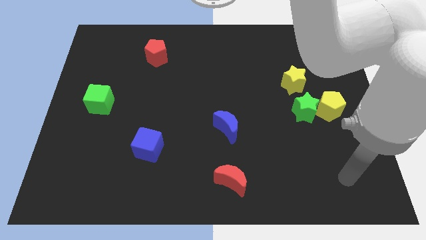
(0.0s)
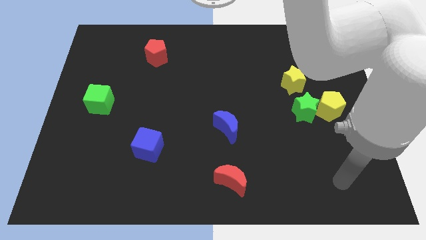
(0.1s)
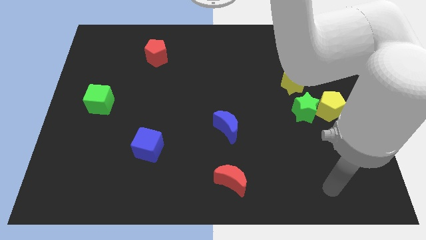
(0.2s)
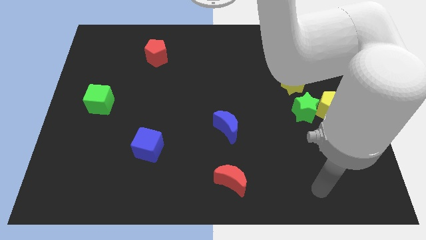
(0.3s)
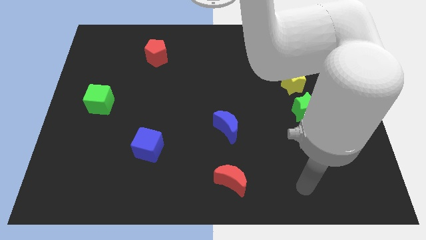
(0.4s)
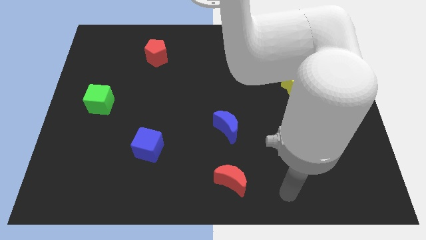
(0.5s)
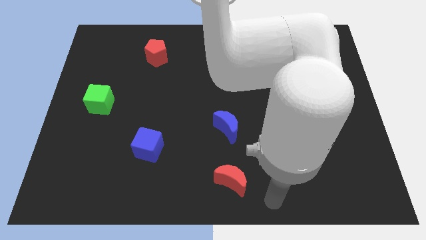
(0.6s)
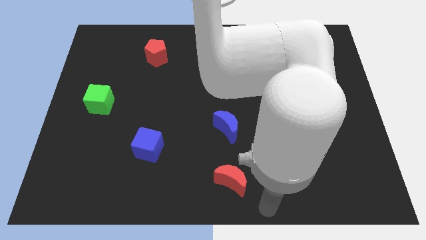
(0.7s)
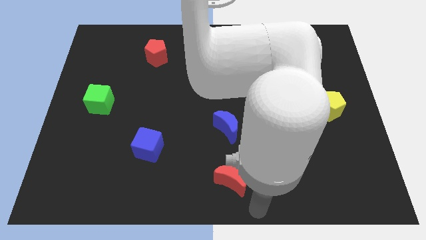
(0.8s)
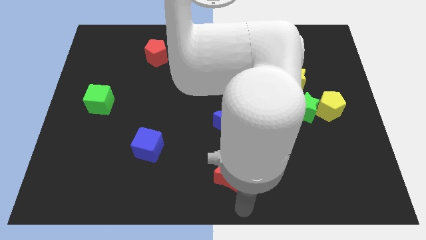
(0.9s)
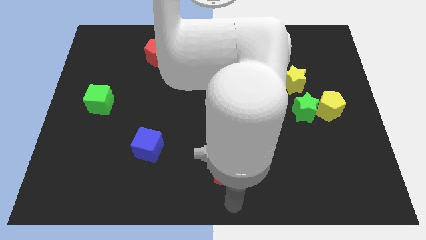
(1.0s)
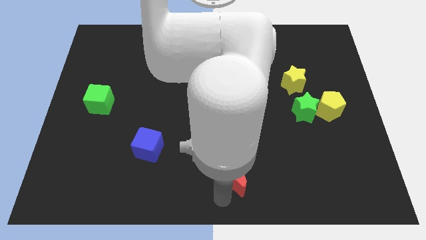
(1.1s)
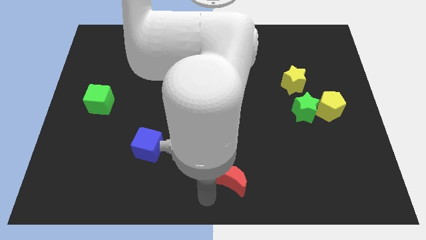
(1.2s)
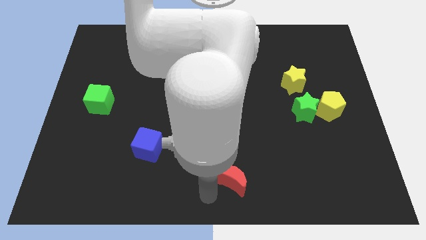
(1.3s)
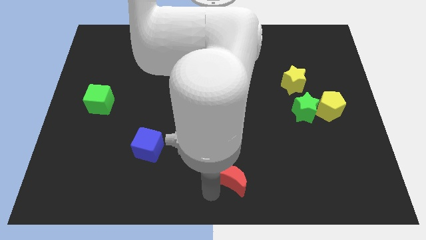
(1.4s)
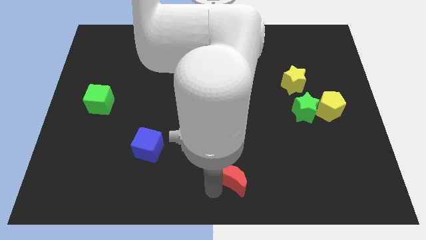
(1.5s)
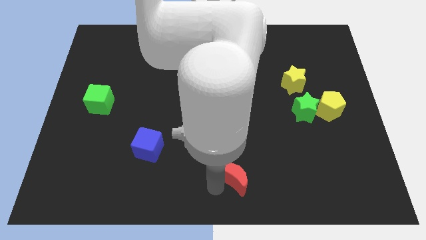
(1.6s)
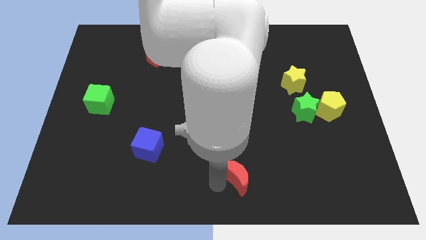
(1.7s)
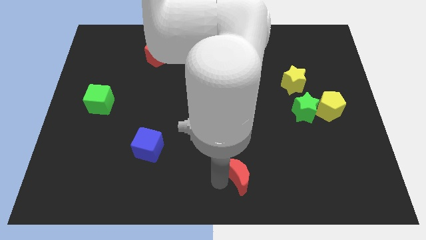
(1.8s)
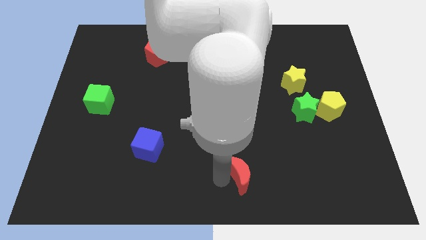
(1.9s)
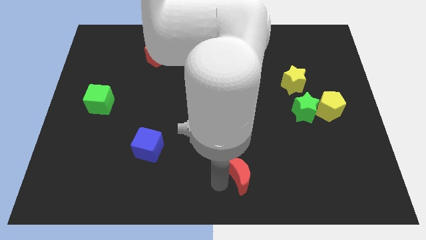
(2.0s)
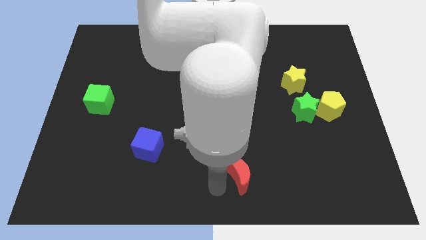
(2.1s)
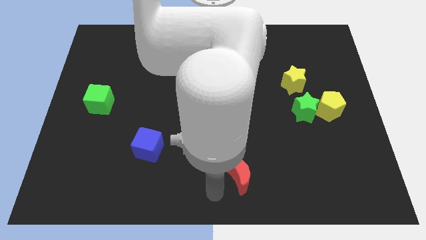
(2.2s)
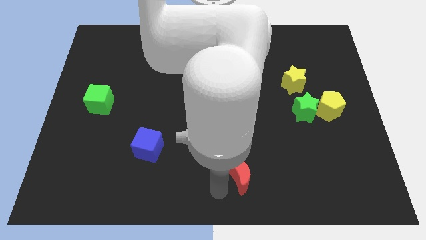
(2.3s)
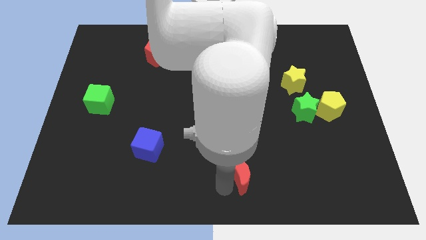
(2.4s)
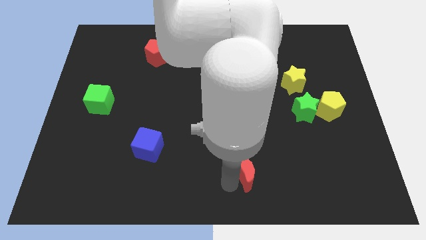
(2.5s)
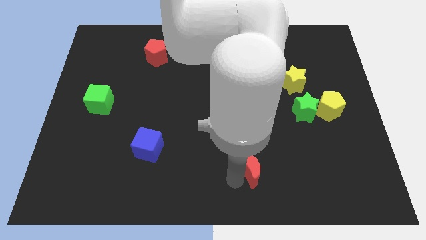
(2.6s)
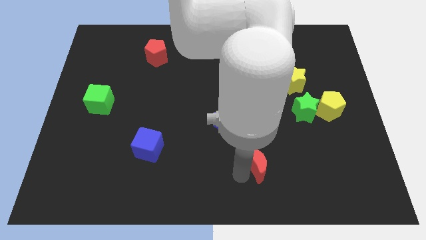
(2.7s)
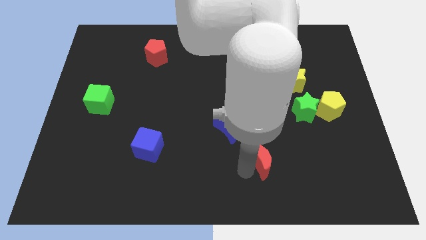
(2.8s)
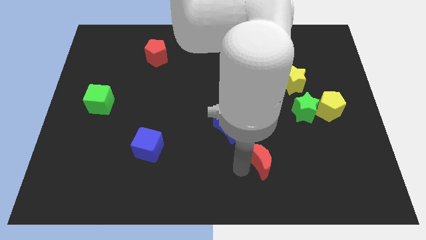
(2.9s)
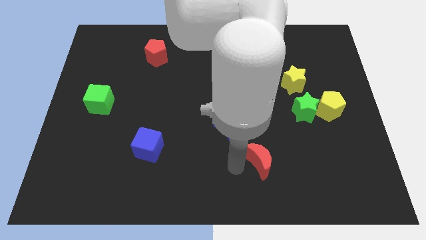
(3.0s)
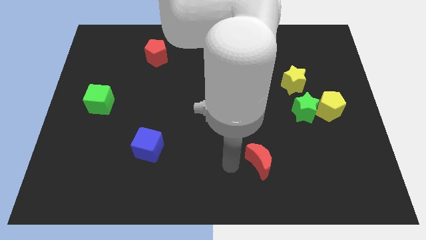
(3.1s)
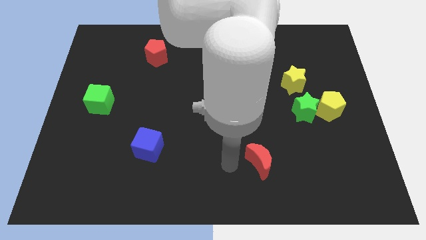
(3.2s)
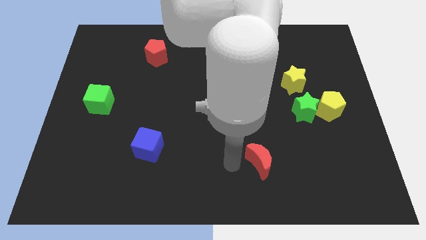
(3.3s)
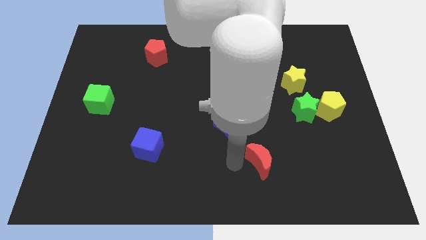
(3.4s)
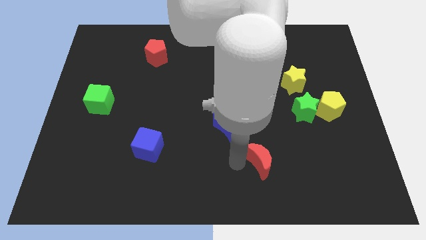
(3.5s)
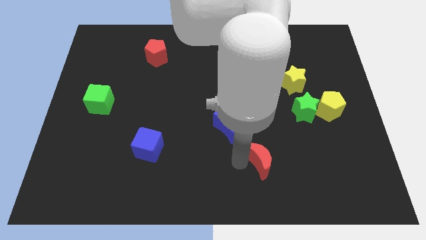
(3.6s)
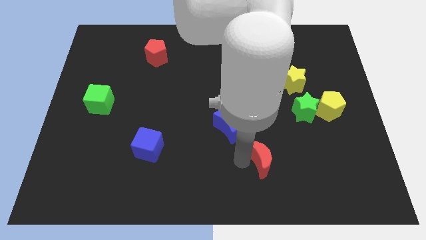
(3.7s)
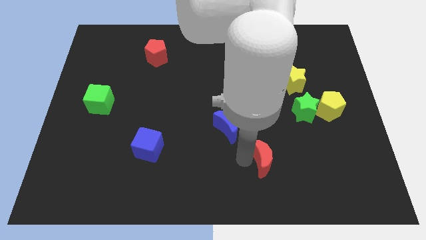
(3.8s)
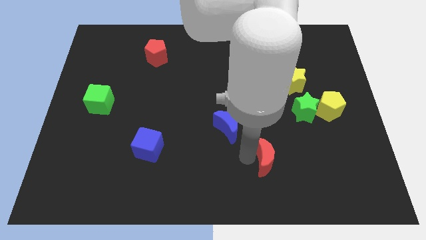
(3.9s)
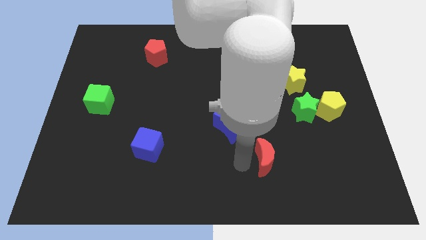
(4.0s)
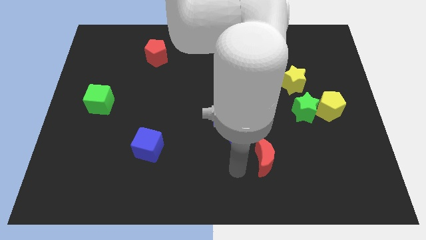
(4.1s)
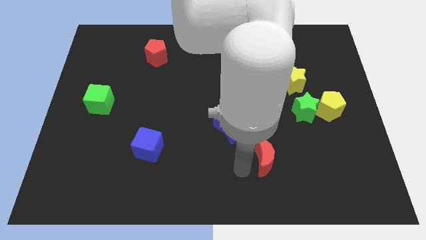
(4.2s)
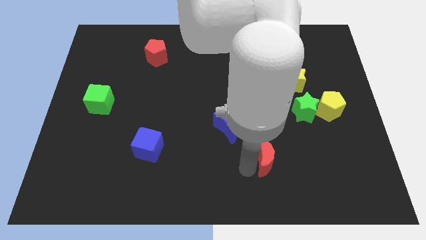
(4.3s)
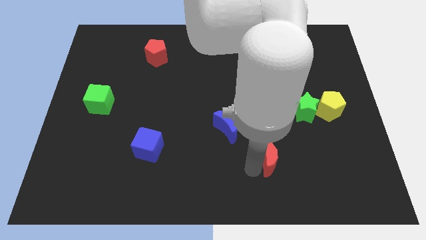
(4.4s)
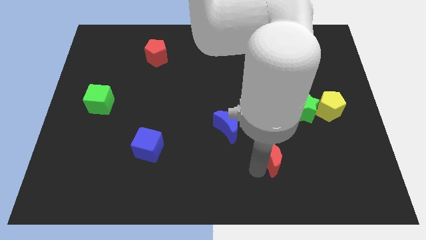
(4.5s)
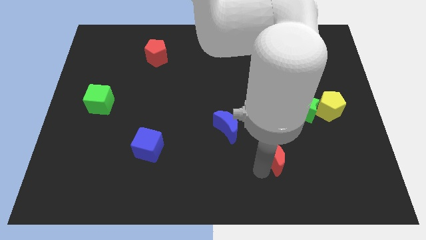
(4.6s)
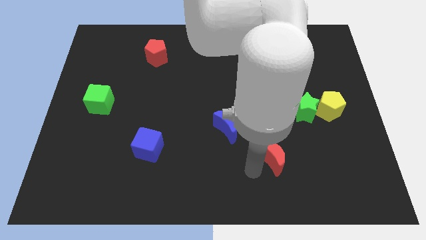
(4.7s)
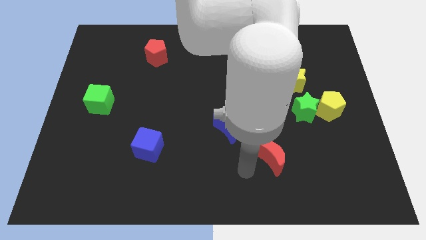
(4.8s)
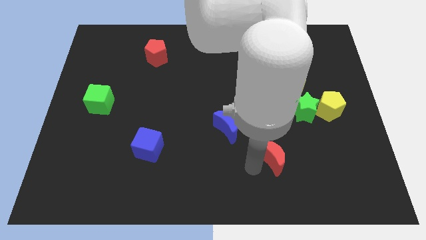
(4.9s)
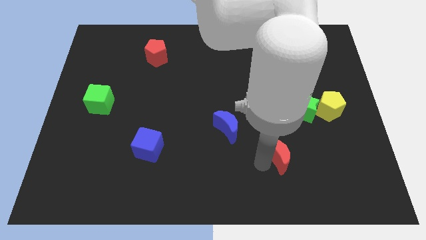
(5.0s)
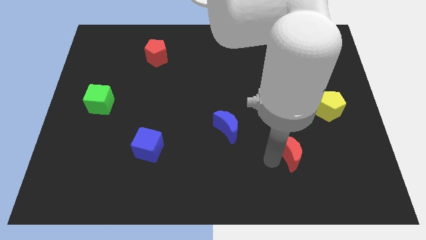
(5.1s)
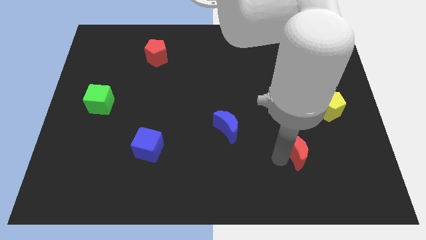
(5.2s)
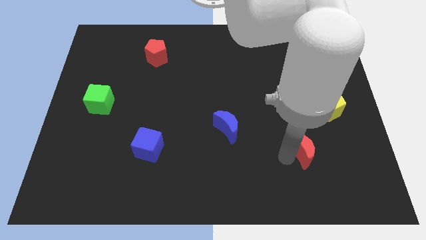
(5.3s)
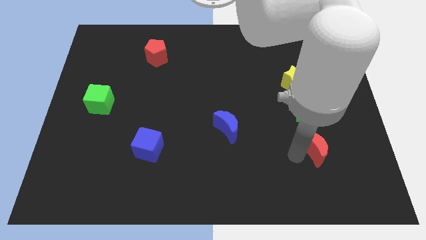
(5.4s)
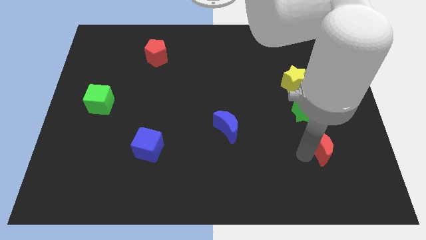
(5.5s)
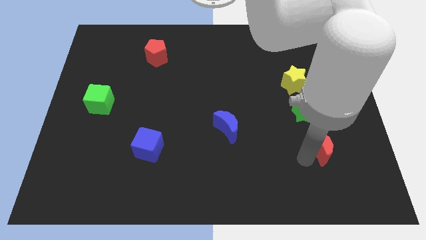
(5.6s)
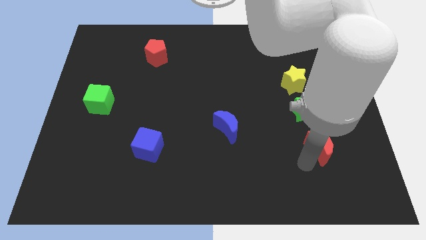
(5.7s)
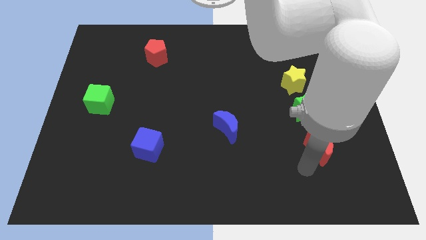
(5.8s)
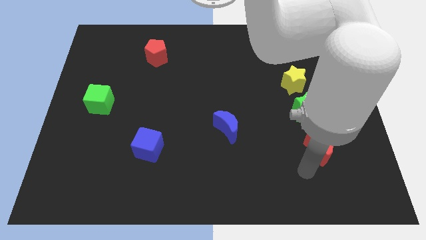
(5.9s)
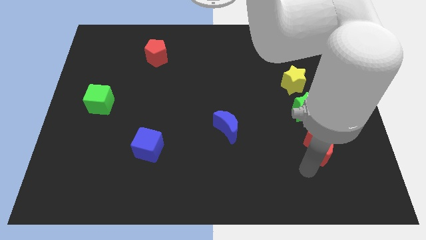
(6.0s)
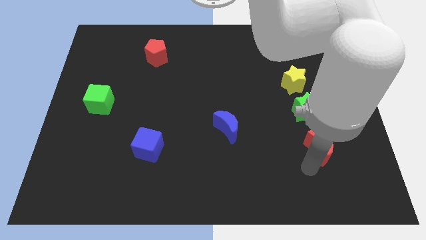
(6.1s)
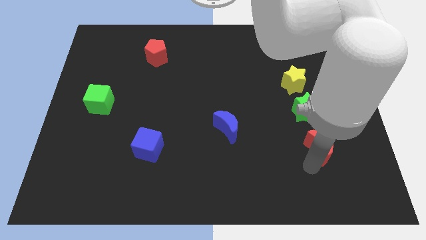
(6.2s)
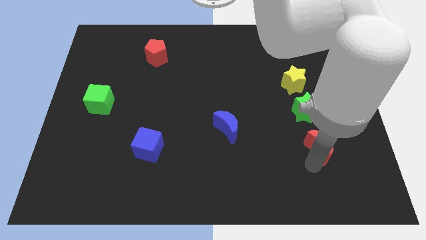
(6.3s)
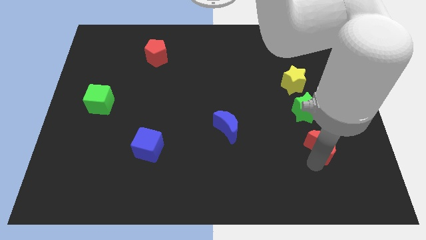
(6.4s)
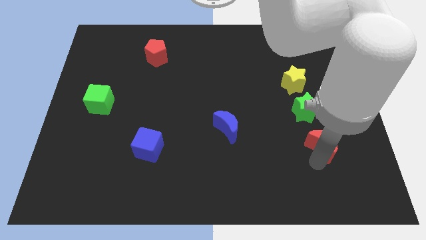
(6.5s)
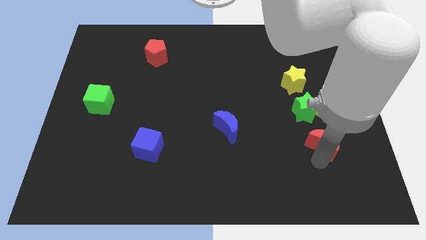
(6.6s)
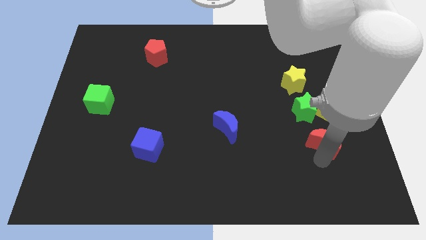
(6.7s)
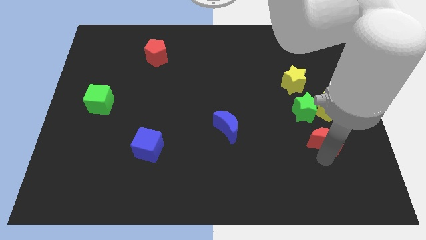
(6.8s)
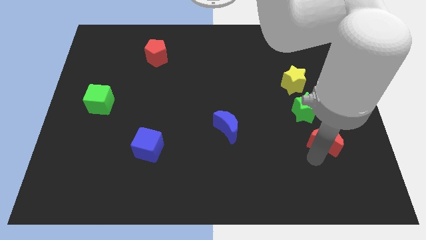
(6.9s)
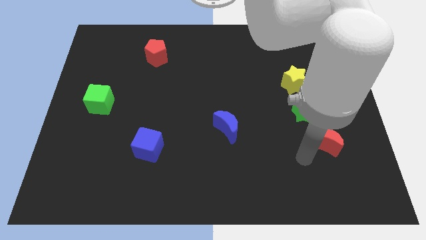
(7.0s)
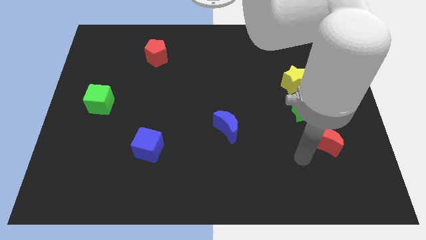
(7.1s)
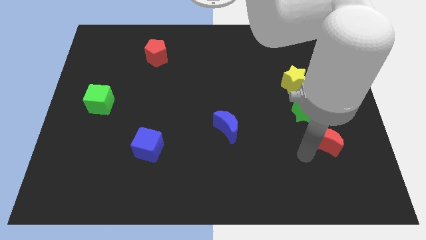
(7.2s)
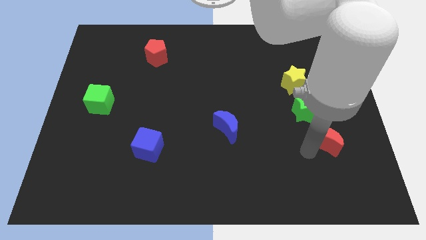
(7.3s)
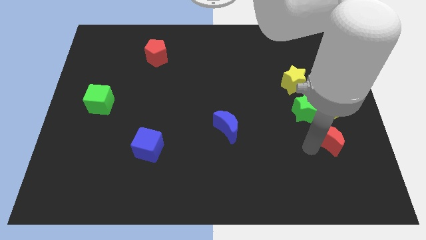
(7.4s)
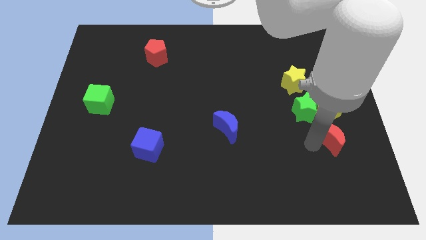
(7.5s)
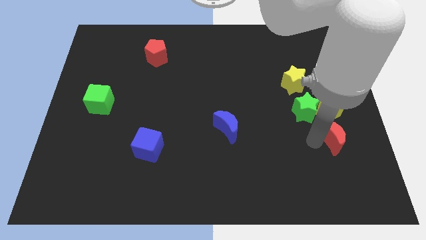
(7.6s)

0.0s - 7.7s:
slide the red moon upwards and right diagonally

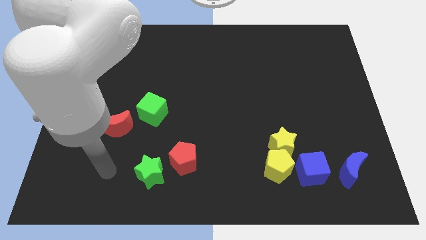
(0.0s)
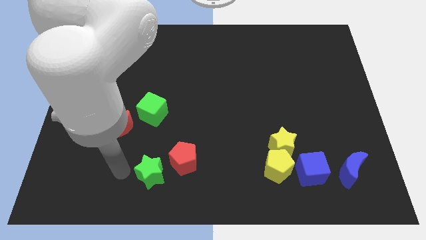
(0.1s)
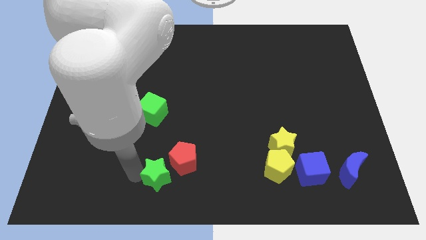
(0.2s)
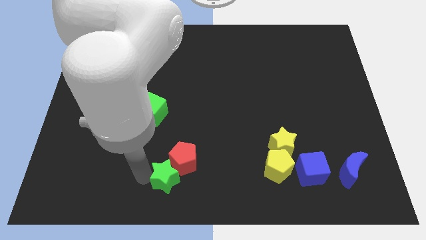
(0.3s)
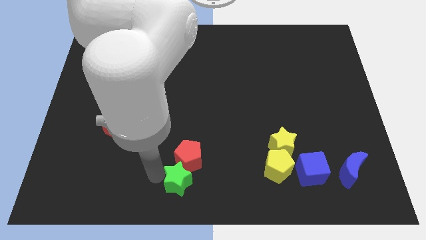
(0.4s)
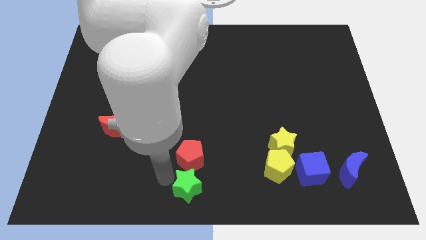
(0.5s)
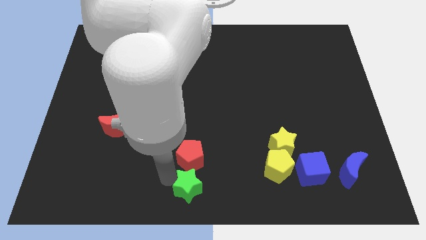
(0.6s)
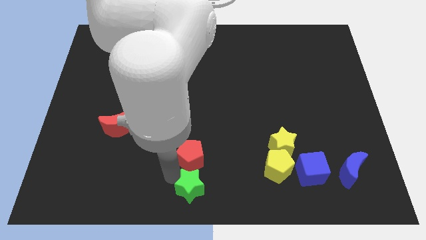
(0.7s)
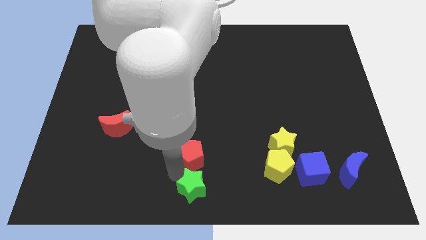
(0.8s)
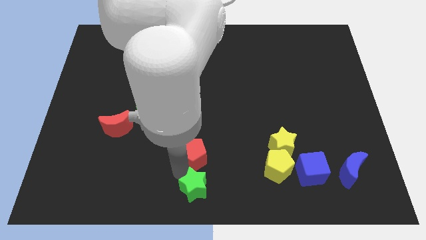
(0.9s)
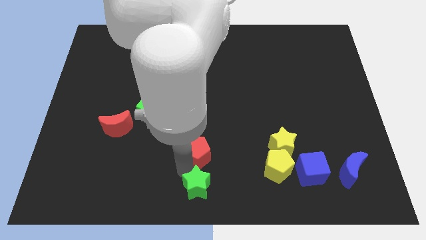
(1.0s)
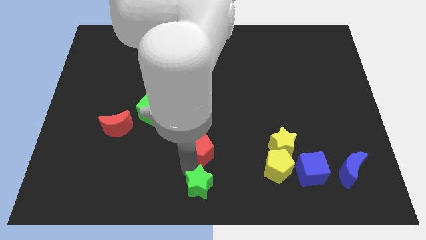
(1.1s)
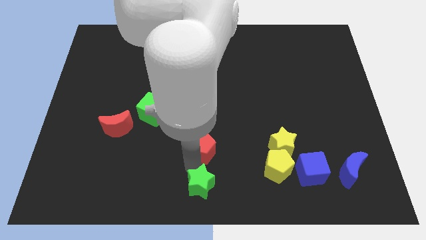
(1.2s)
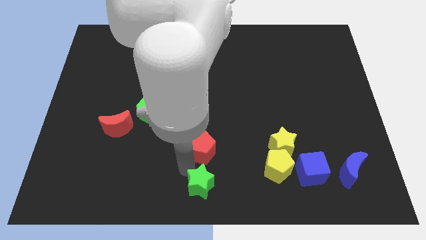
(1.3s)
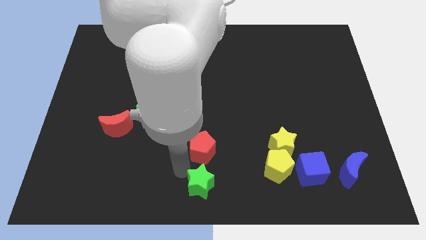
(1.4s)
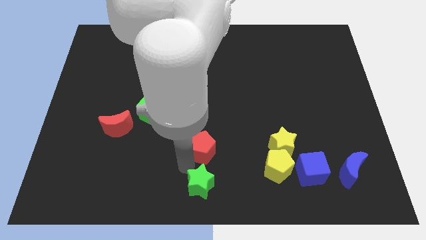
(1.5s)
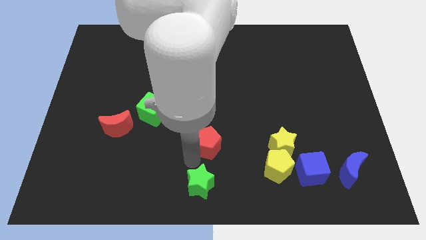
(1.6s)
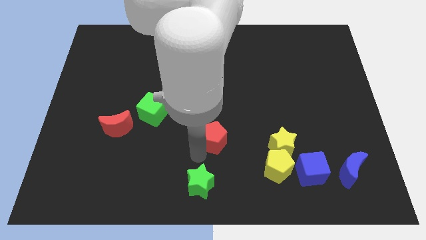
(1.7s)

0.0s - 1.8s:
move the red pentagon upwards and right a bit
